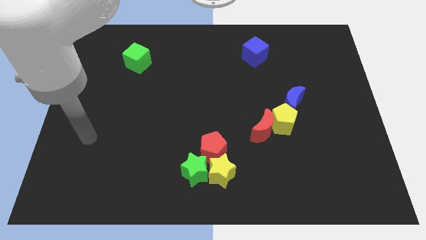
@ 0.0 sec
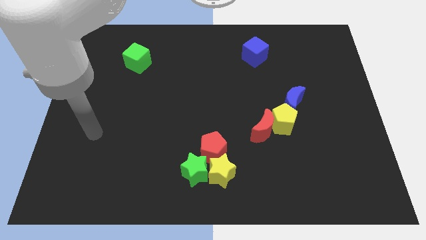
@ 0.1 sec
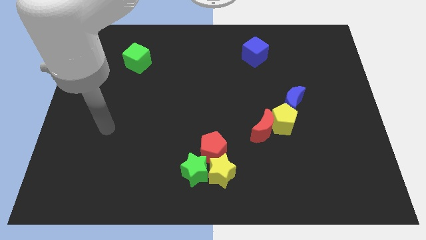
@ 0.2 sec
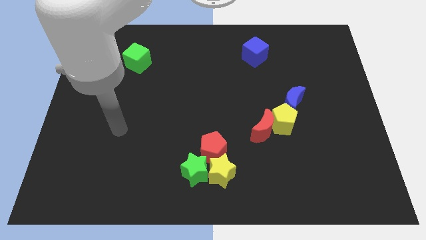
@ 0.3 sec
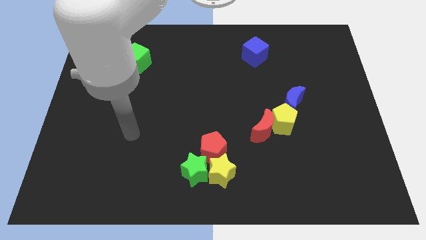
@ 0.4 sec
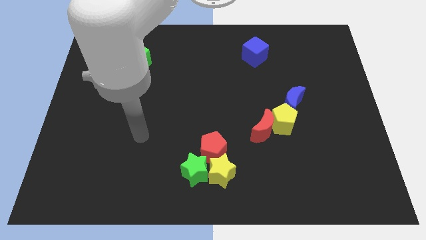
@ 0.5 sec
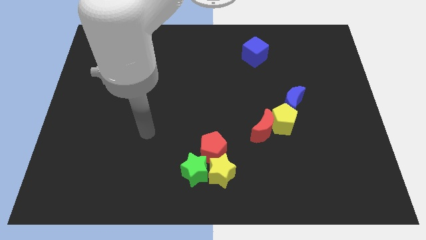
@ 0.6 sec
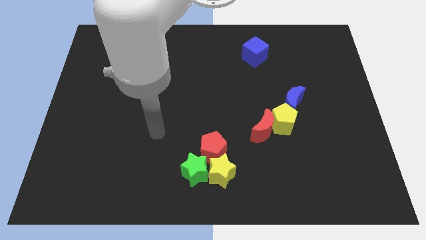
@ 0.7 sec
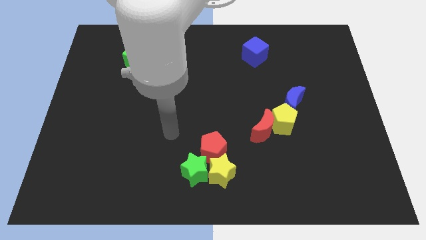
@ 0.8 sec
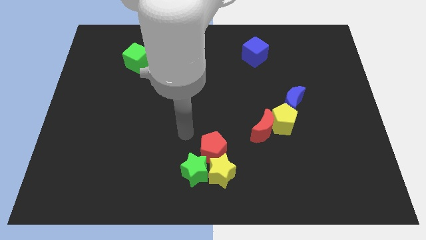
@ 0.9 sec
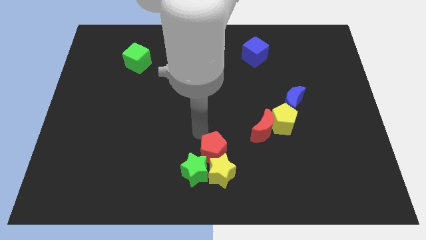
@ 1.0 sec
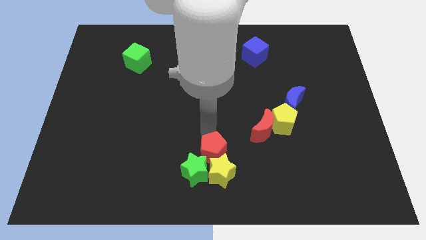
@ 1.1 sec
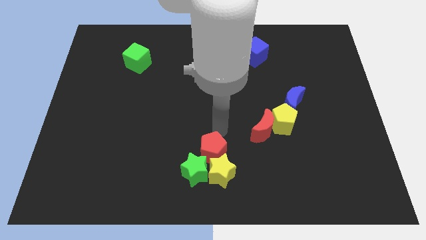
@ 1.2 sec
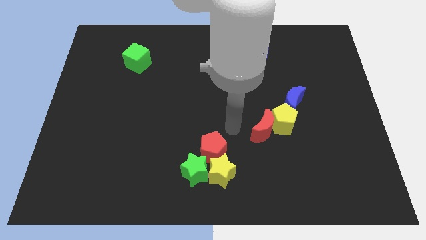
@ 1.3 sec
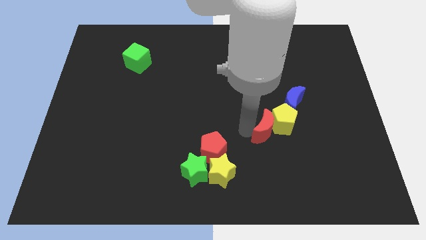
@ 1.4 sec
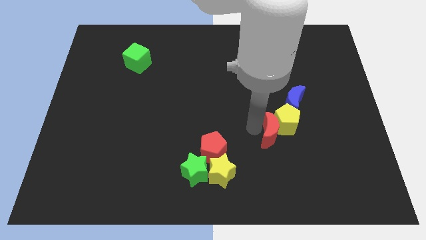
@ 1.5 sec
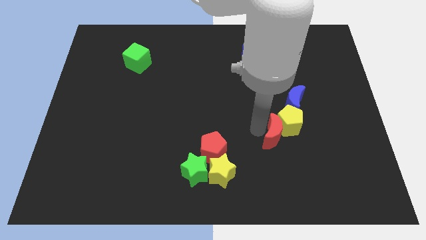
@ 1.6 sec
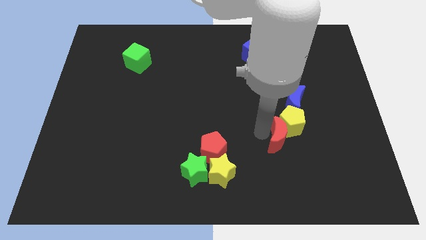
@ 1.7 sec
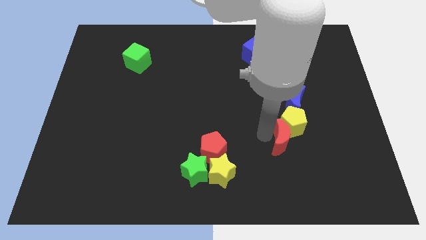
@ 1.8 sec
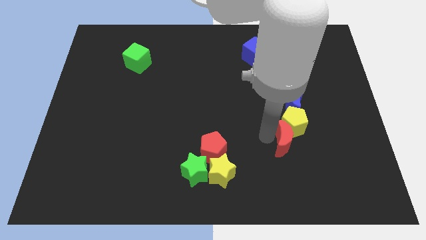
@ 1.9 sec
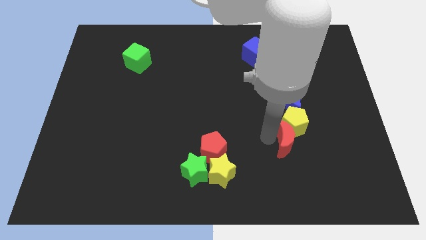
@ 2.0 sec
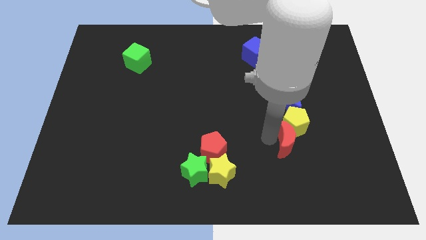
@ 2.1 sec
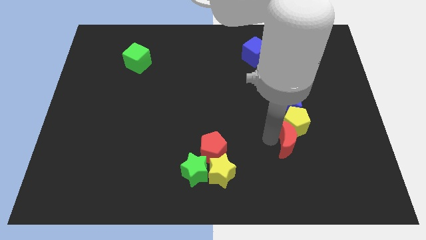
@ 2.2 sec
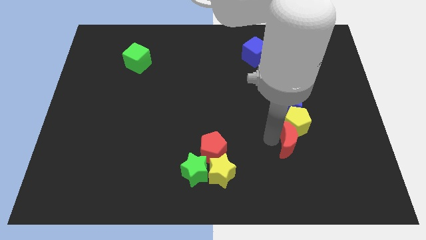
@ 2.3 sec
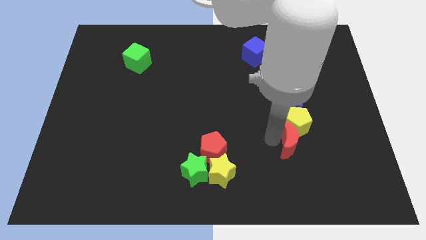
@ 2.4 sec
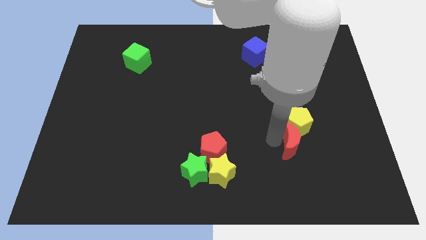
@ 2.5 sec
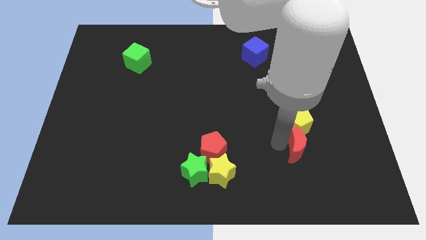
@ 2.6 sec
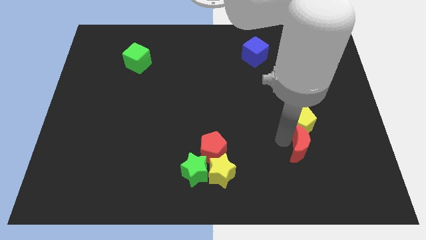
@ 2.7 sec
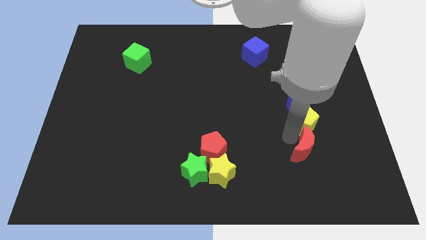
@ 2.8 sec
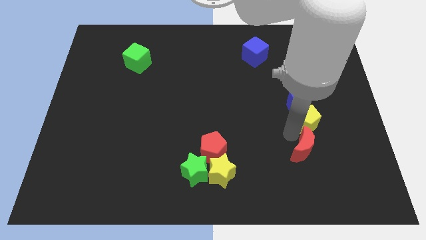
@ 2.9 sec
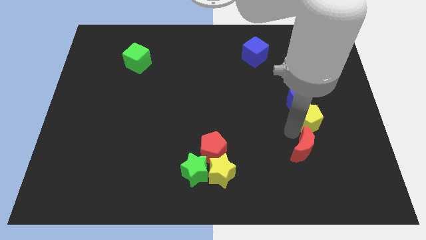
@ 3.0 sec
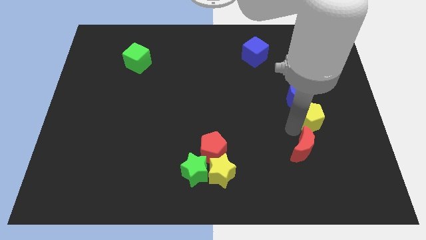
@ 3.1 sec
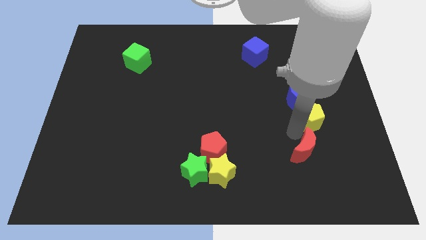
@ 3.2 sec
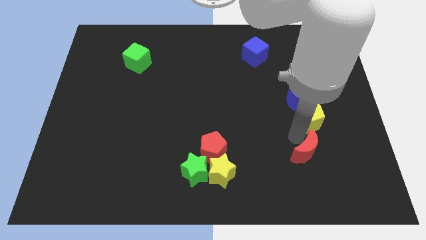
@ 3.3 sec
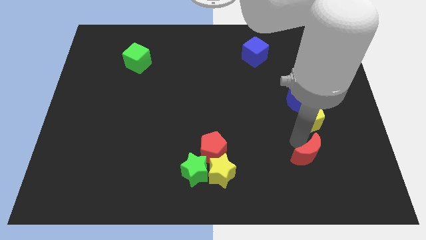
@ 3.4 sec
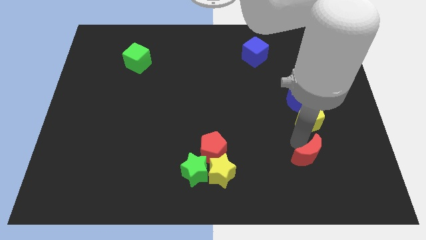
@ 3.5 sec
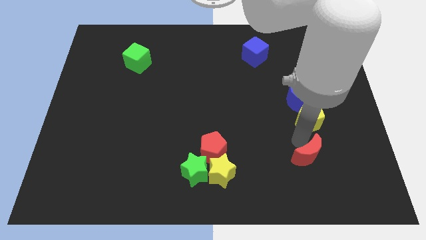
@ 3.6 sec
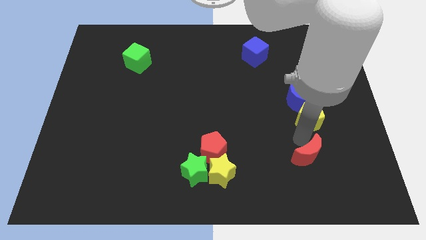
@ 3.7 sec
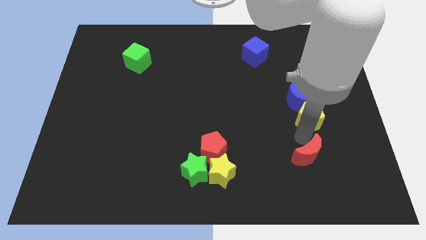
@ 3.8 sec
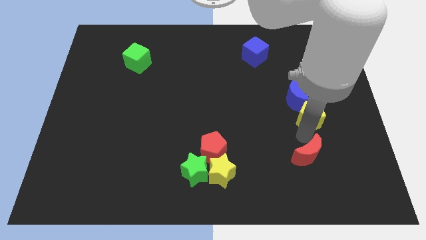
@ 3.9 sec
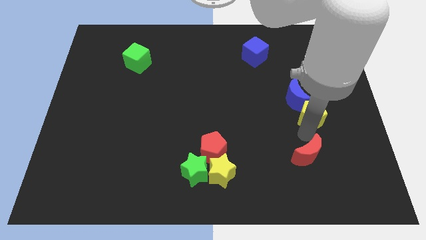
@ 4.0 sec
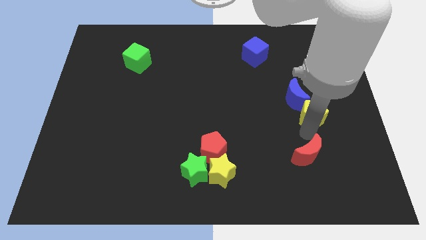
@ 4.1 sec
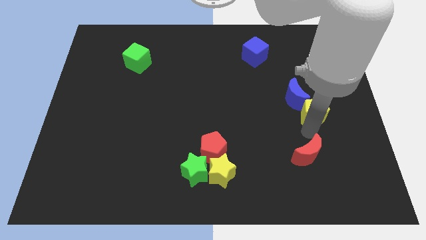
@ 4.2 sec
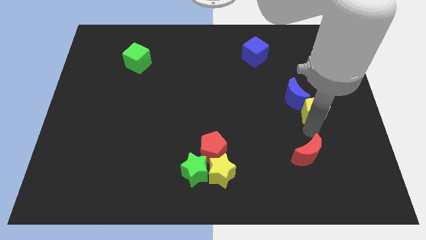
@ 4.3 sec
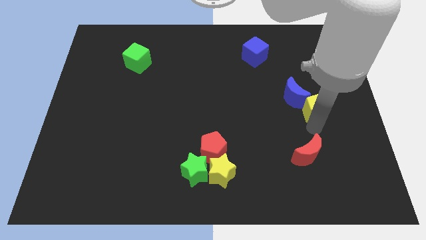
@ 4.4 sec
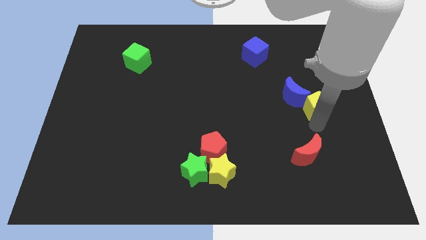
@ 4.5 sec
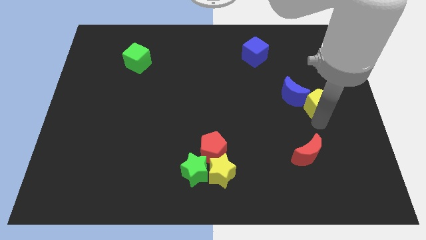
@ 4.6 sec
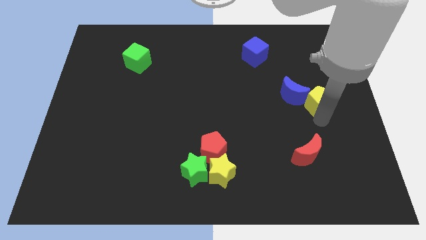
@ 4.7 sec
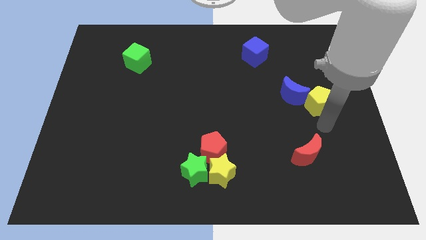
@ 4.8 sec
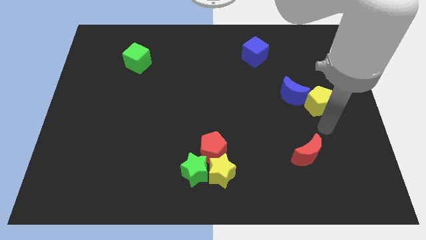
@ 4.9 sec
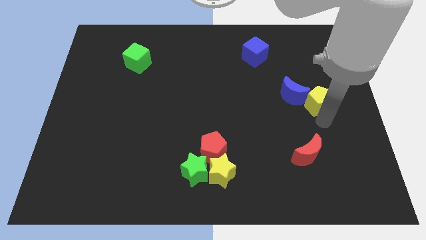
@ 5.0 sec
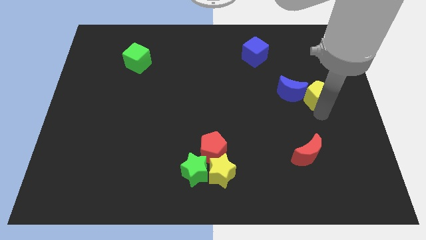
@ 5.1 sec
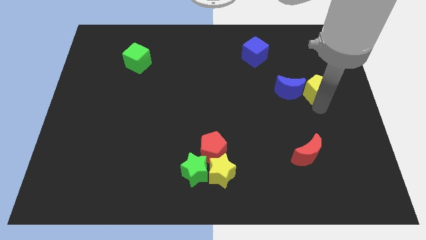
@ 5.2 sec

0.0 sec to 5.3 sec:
push the yellow pentagon to the top right side of the blue moon

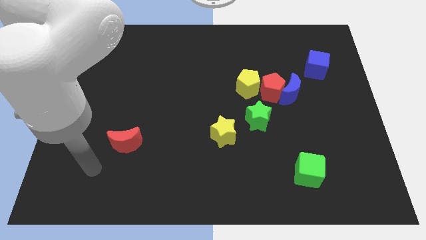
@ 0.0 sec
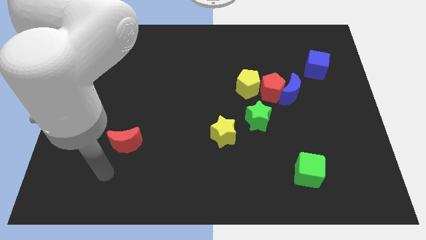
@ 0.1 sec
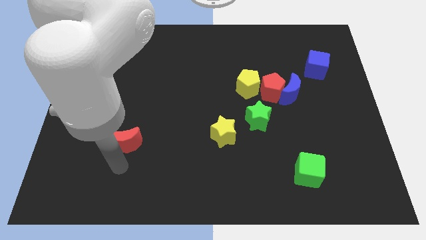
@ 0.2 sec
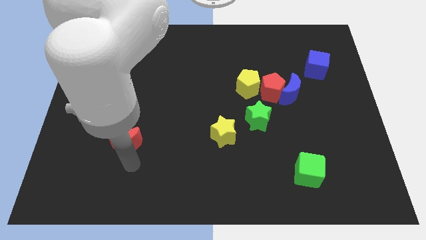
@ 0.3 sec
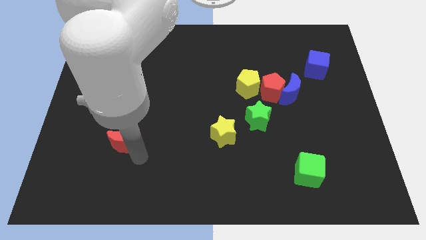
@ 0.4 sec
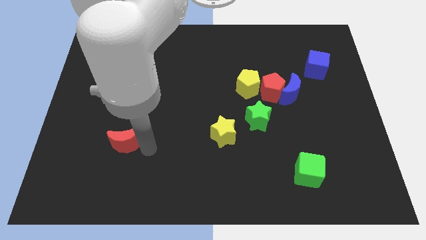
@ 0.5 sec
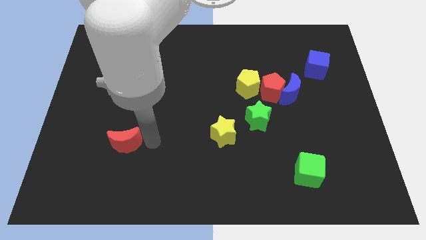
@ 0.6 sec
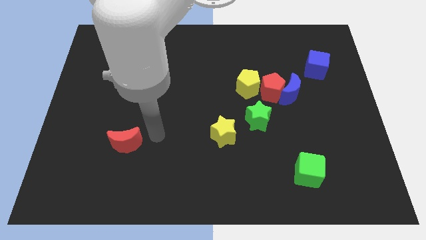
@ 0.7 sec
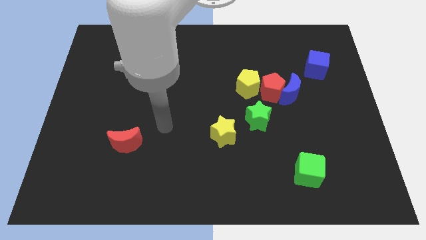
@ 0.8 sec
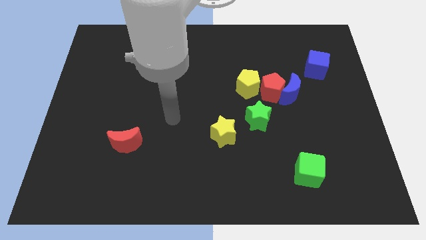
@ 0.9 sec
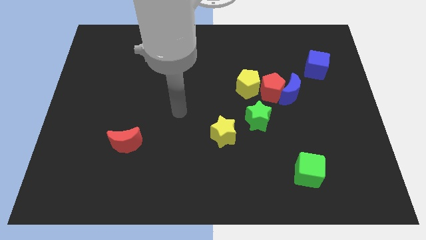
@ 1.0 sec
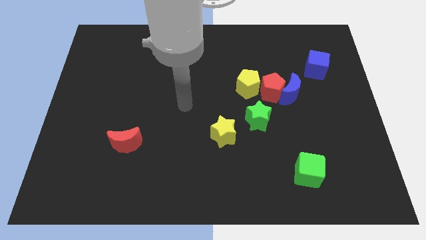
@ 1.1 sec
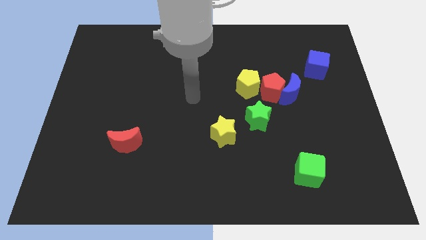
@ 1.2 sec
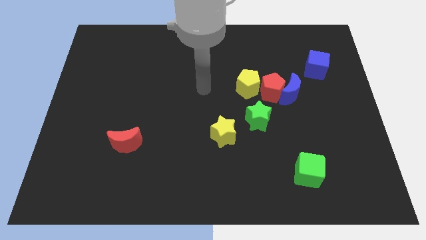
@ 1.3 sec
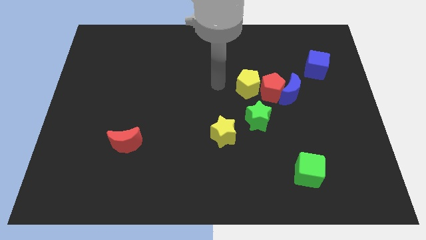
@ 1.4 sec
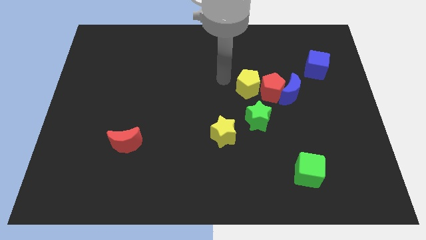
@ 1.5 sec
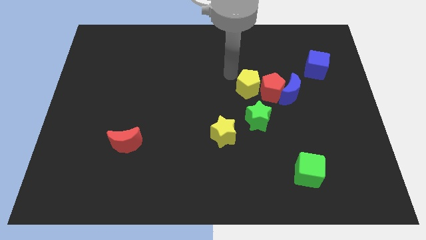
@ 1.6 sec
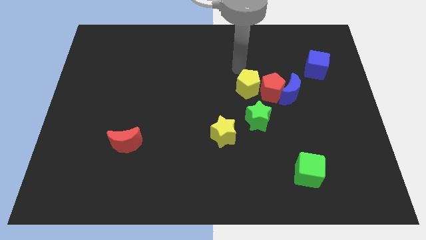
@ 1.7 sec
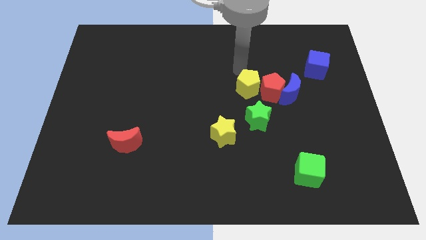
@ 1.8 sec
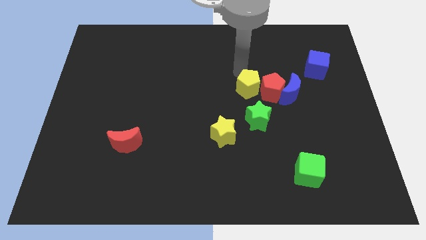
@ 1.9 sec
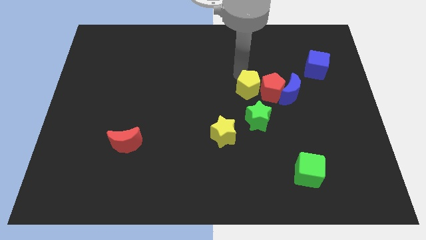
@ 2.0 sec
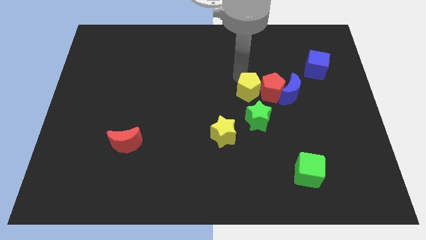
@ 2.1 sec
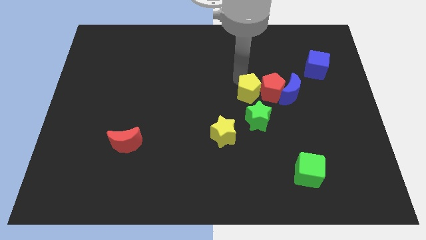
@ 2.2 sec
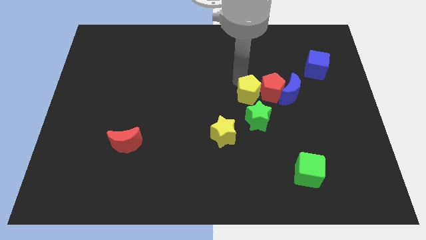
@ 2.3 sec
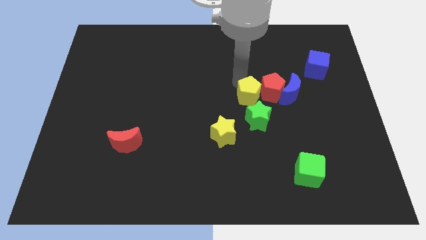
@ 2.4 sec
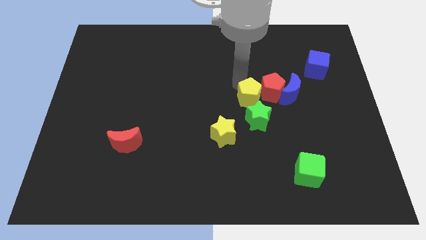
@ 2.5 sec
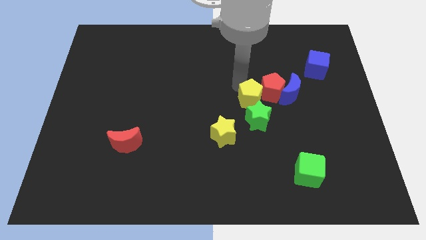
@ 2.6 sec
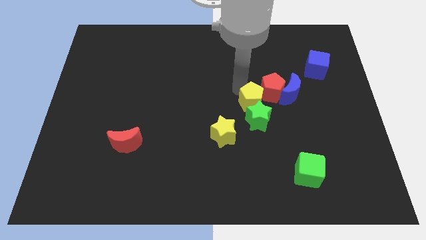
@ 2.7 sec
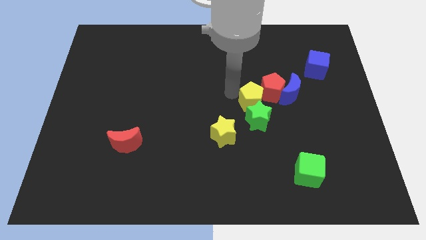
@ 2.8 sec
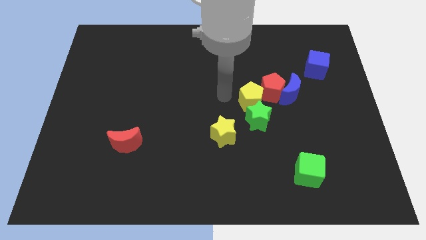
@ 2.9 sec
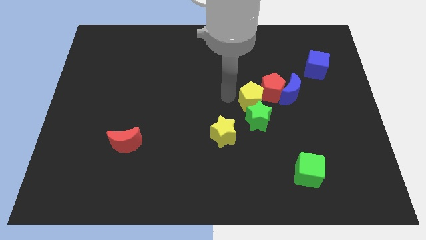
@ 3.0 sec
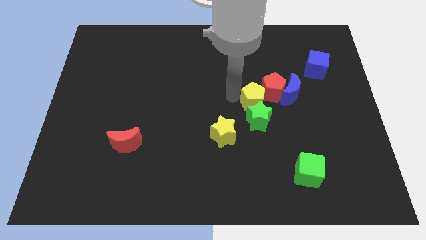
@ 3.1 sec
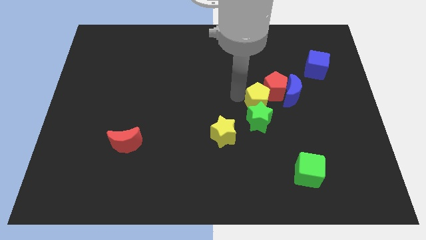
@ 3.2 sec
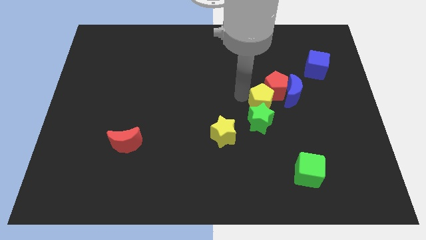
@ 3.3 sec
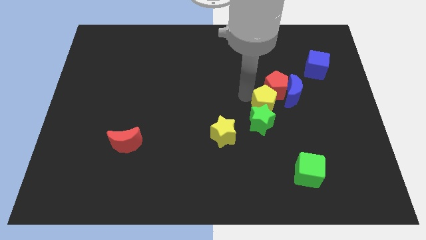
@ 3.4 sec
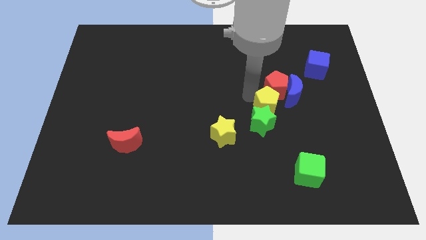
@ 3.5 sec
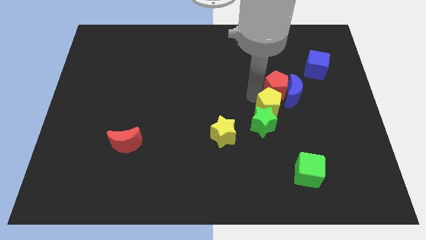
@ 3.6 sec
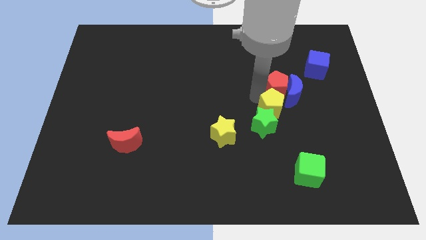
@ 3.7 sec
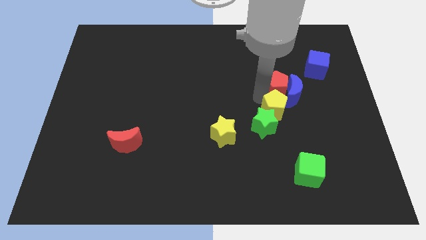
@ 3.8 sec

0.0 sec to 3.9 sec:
move the yellow pentagon diagonally down and to the right of the red pentagon
